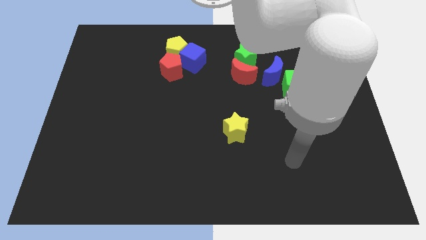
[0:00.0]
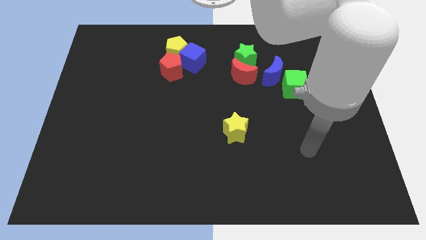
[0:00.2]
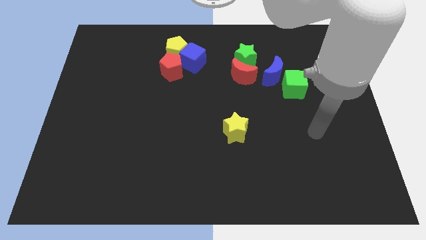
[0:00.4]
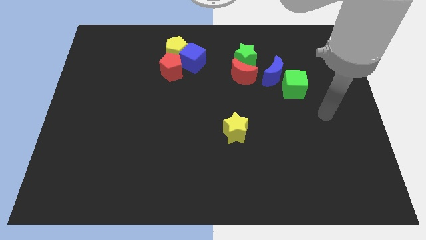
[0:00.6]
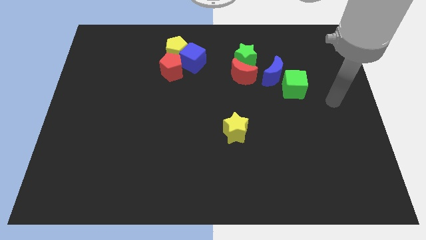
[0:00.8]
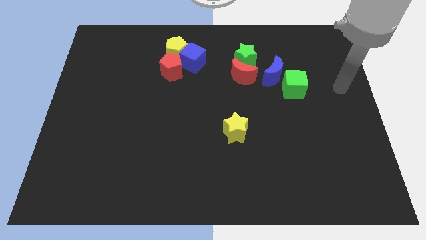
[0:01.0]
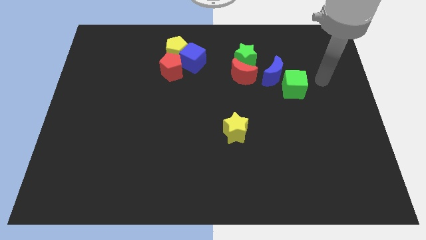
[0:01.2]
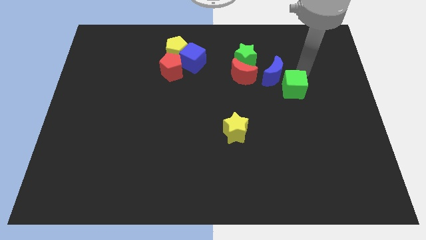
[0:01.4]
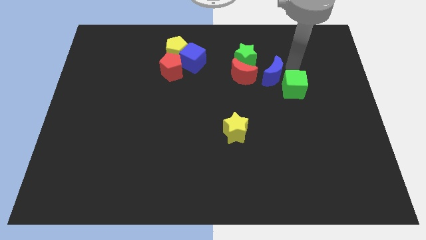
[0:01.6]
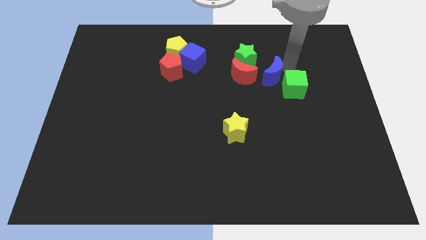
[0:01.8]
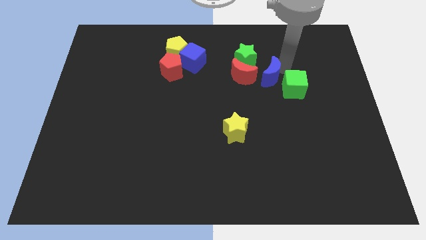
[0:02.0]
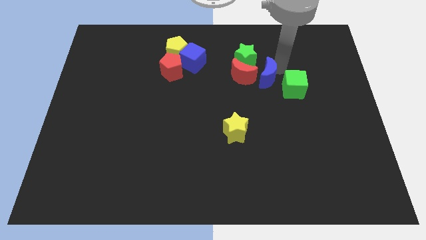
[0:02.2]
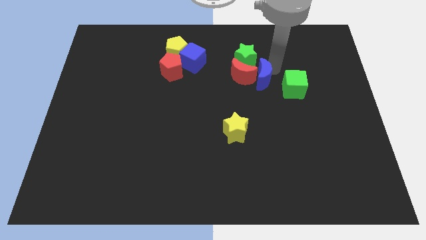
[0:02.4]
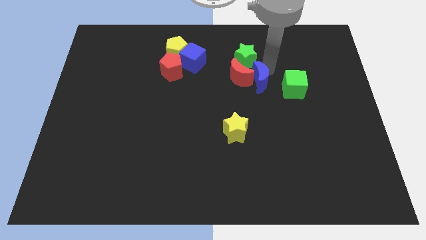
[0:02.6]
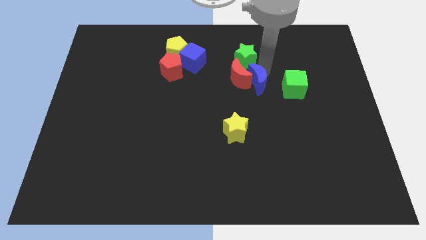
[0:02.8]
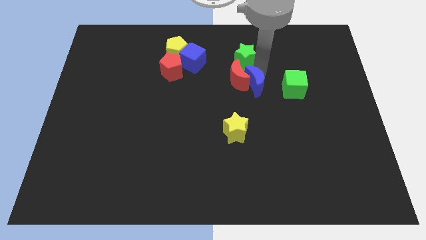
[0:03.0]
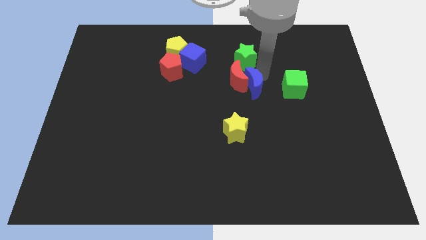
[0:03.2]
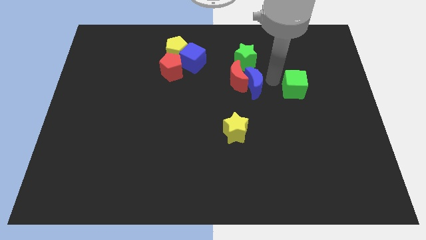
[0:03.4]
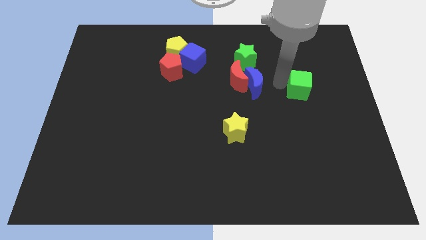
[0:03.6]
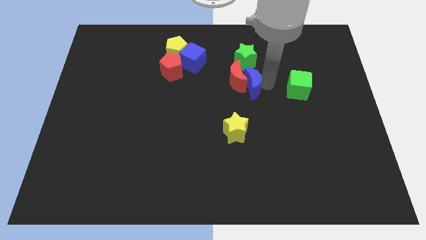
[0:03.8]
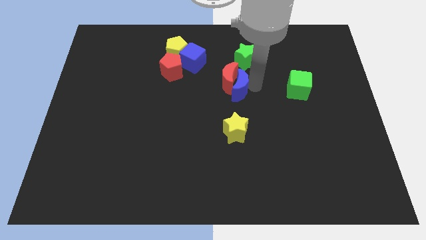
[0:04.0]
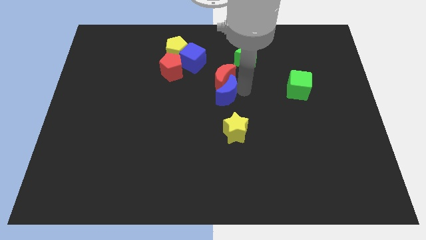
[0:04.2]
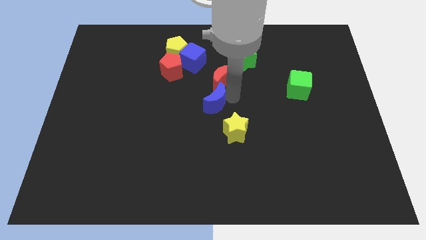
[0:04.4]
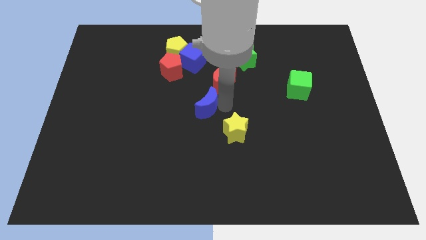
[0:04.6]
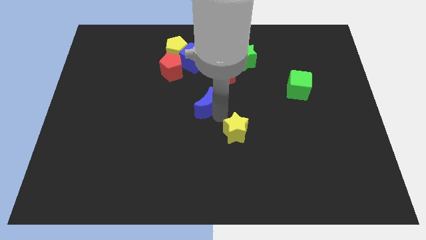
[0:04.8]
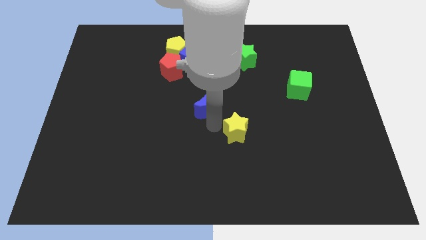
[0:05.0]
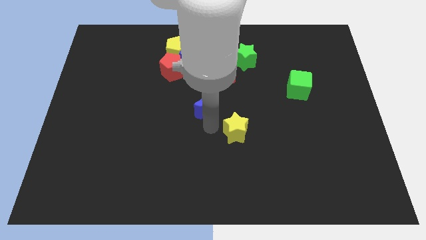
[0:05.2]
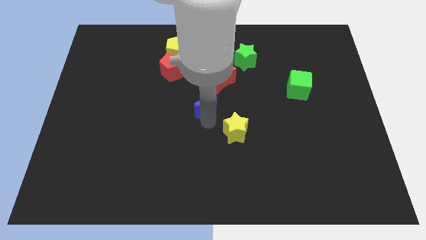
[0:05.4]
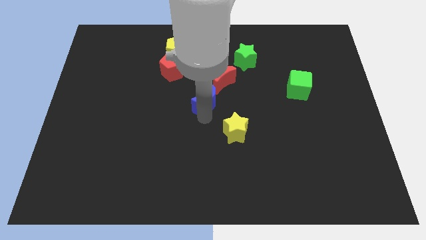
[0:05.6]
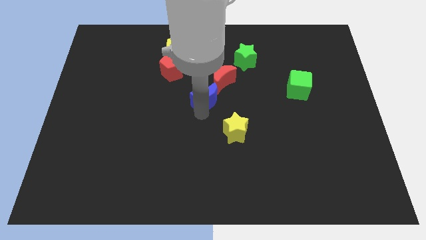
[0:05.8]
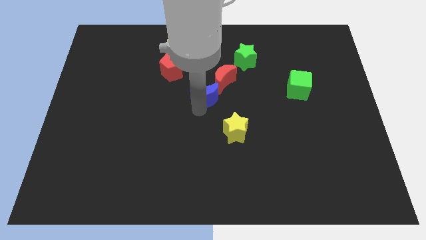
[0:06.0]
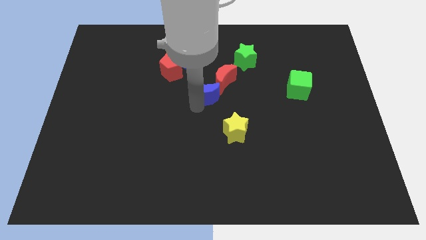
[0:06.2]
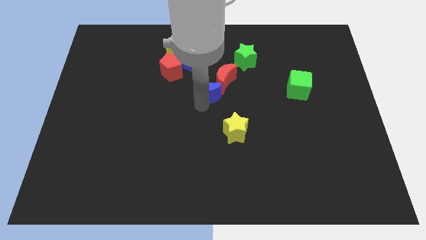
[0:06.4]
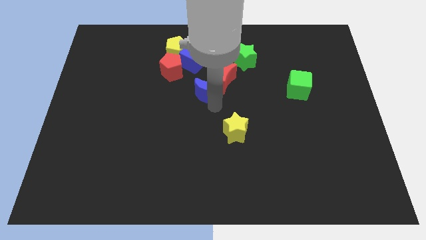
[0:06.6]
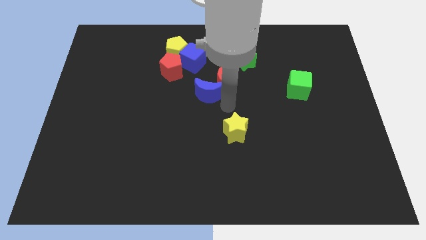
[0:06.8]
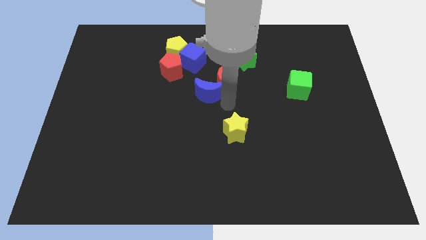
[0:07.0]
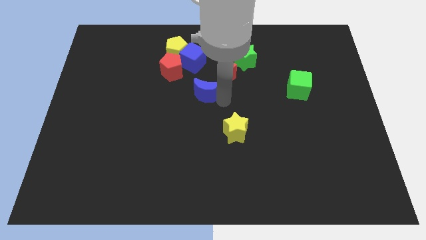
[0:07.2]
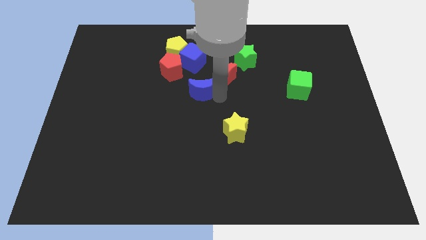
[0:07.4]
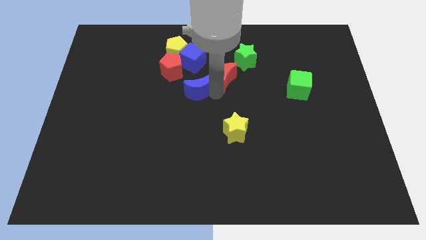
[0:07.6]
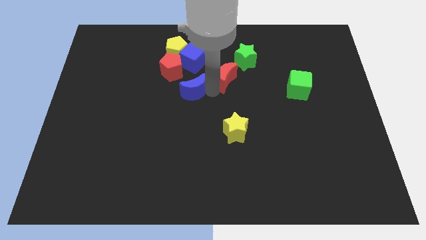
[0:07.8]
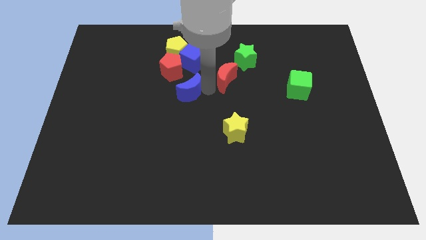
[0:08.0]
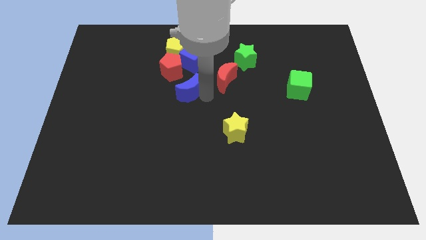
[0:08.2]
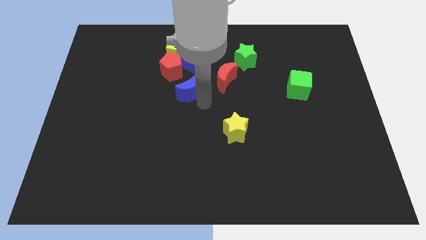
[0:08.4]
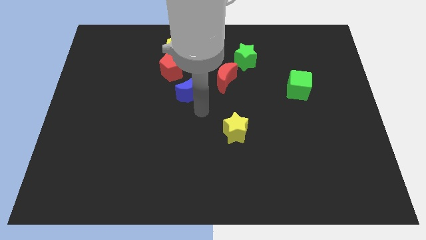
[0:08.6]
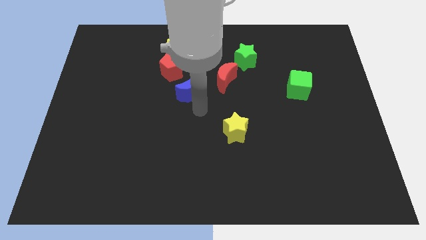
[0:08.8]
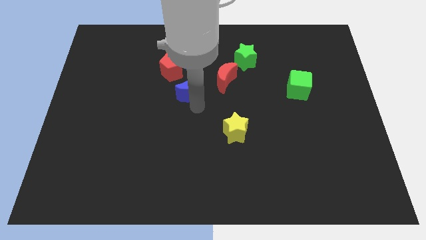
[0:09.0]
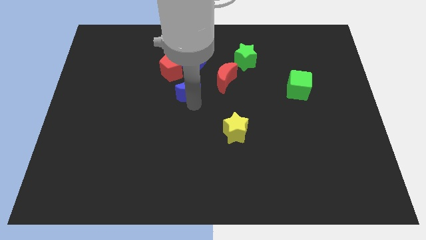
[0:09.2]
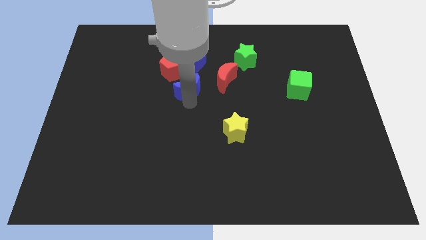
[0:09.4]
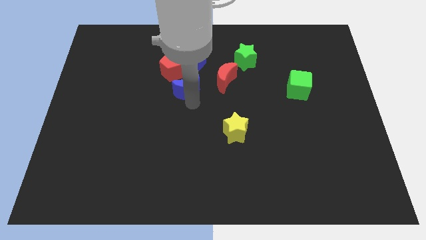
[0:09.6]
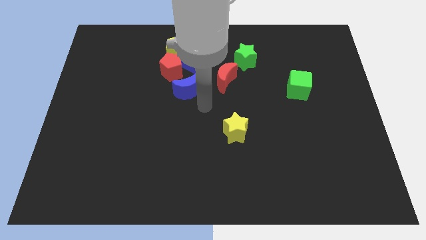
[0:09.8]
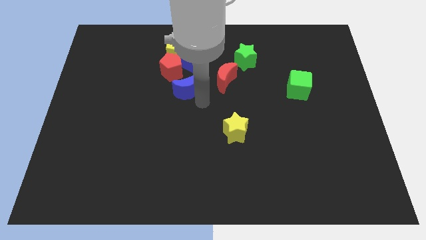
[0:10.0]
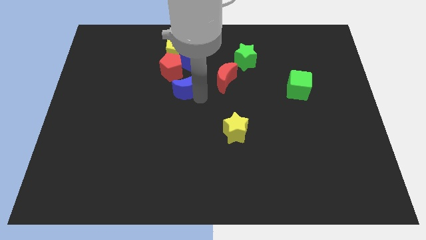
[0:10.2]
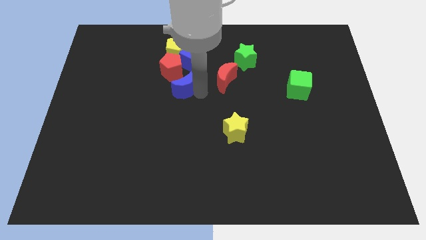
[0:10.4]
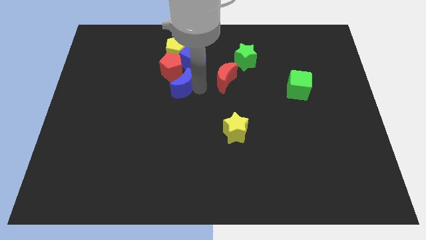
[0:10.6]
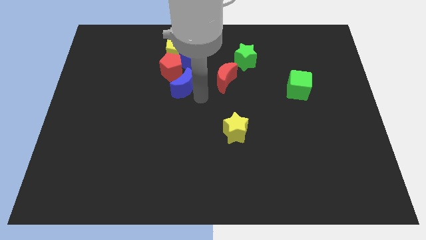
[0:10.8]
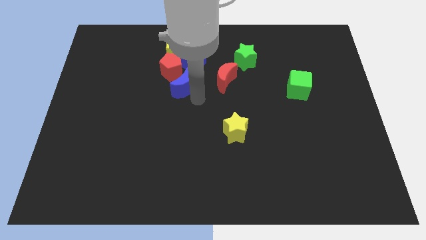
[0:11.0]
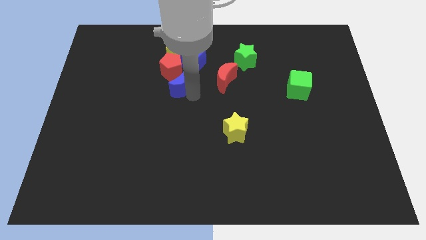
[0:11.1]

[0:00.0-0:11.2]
push the blue moon diagonally down and to the left of the blue cube

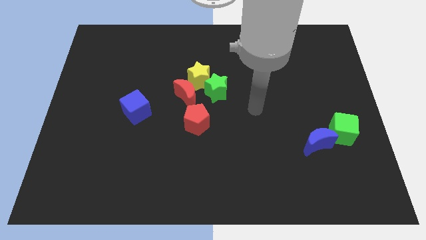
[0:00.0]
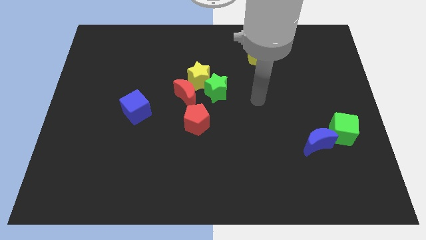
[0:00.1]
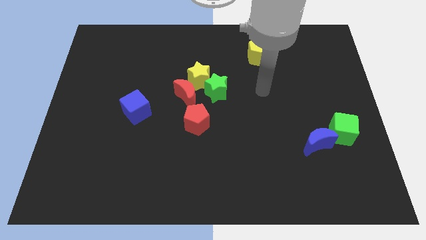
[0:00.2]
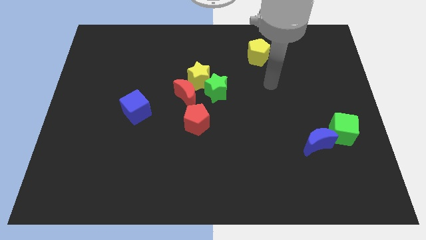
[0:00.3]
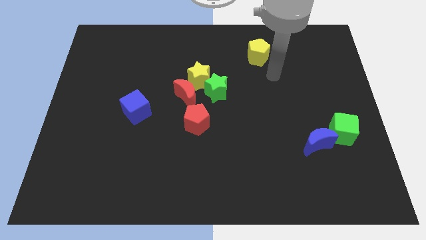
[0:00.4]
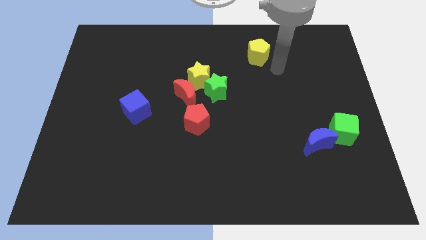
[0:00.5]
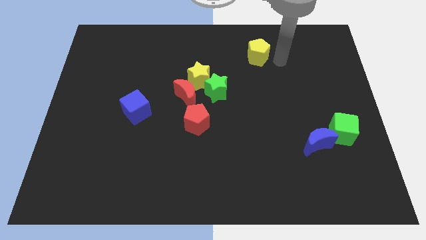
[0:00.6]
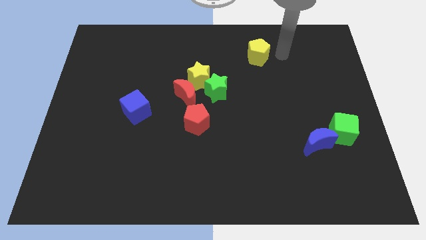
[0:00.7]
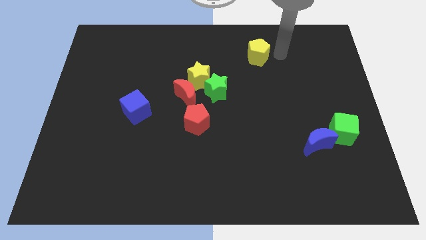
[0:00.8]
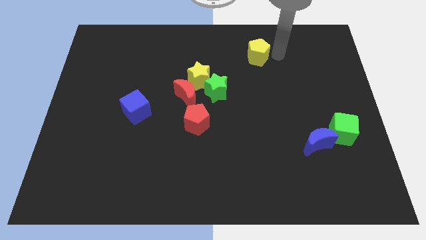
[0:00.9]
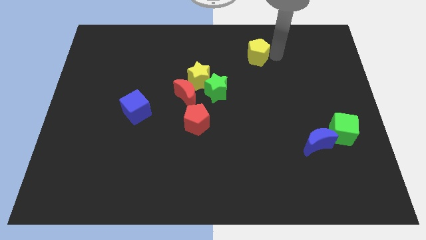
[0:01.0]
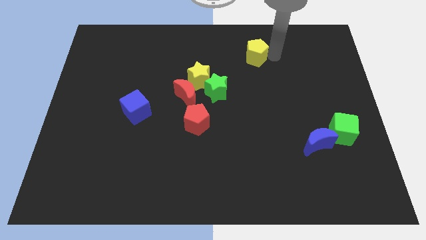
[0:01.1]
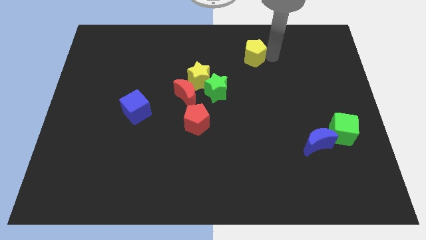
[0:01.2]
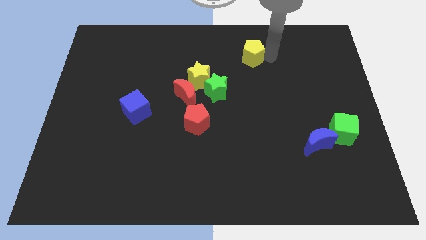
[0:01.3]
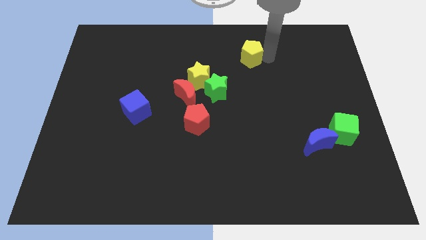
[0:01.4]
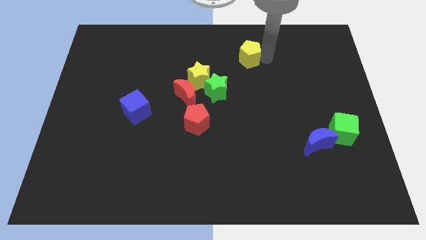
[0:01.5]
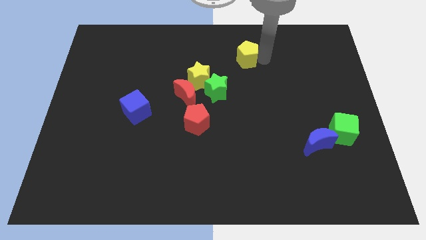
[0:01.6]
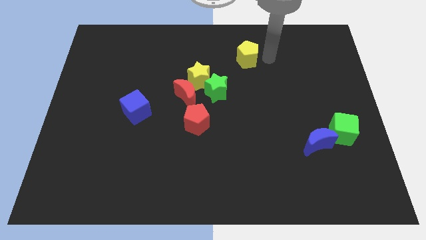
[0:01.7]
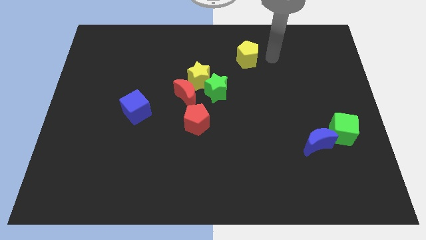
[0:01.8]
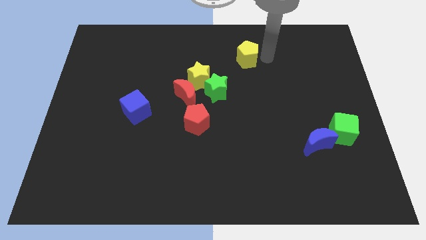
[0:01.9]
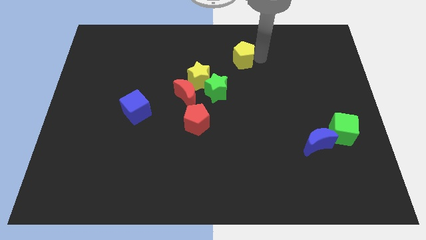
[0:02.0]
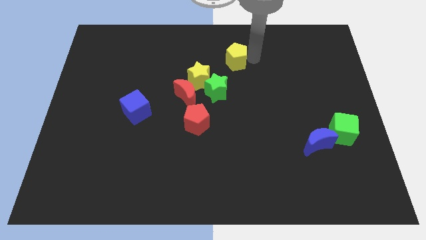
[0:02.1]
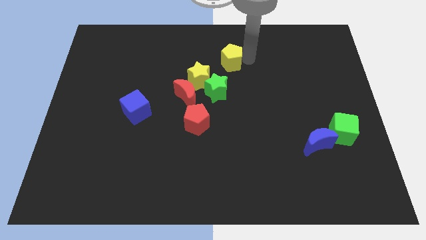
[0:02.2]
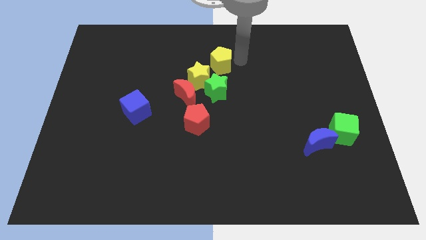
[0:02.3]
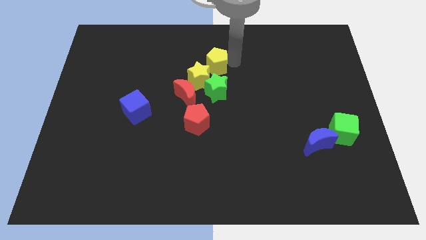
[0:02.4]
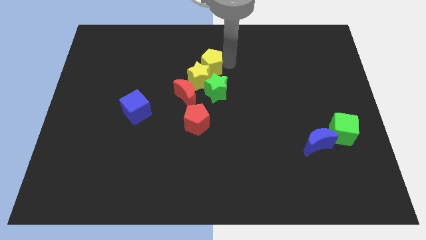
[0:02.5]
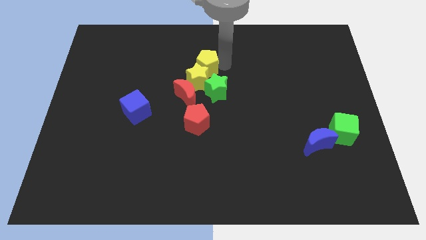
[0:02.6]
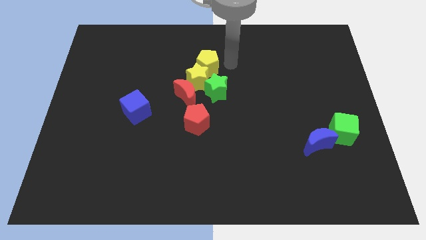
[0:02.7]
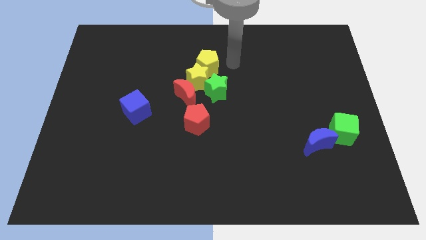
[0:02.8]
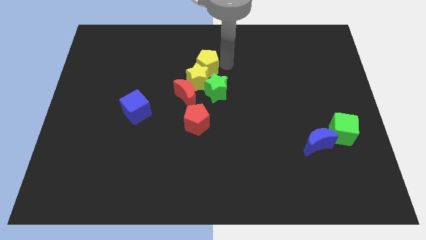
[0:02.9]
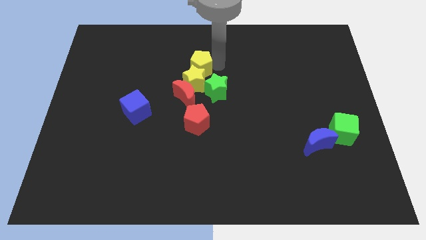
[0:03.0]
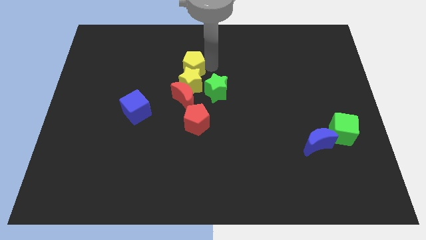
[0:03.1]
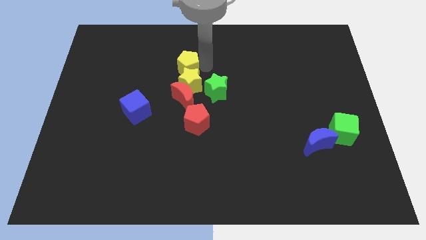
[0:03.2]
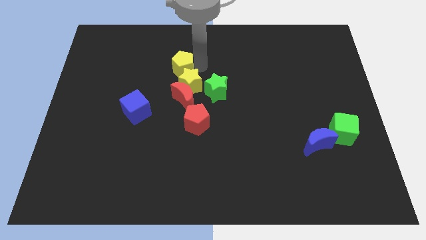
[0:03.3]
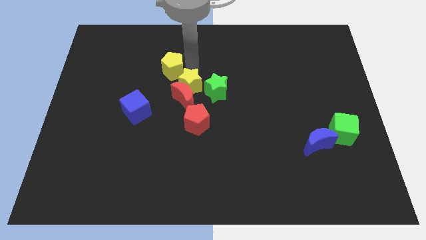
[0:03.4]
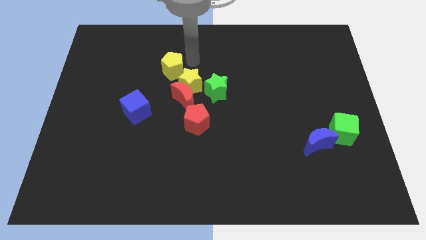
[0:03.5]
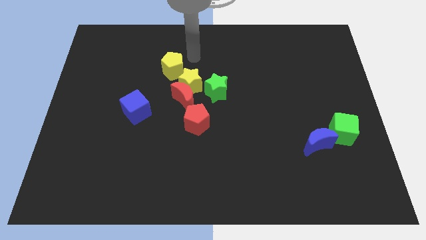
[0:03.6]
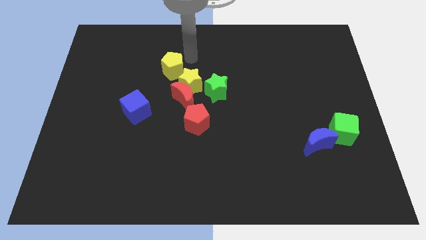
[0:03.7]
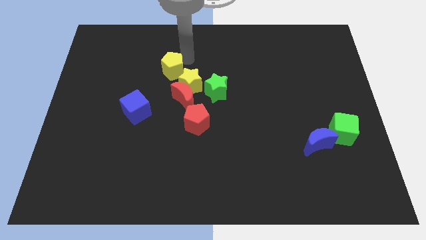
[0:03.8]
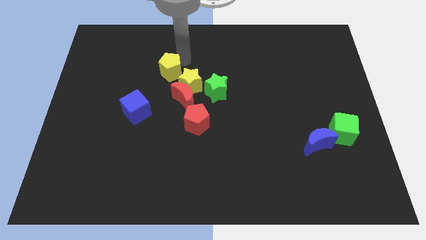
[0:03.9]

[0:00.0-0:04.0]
move the yellow pentagon just left of the yellow star
